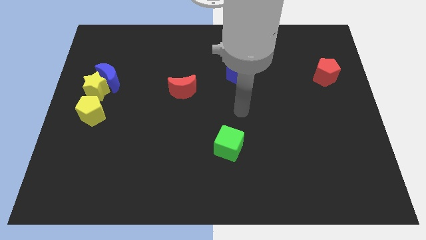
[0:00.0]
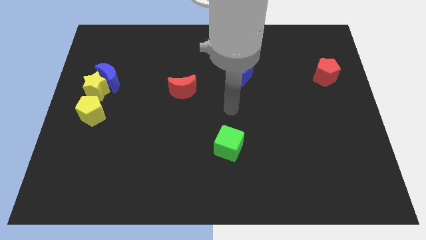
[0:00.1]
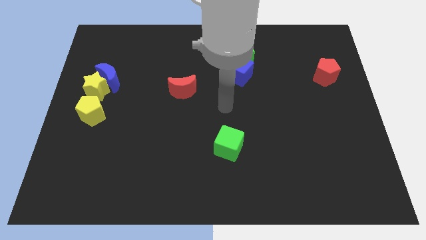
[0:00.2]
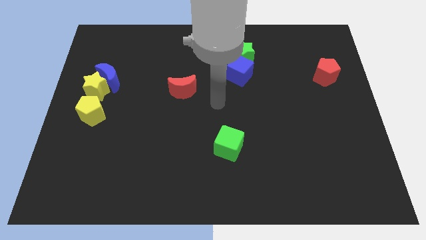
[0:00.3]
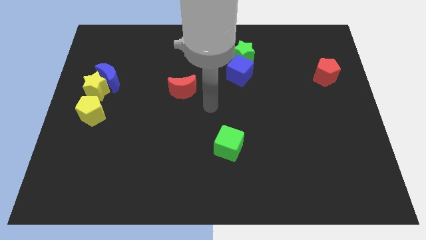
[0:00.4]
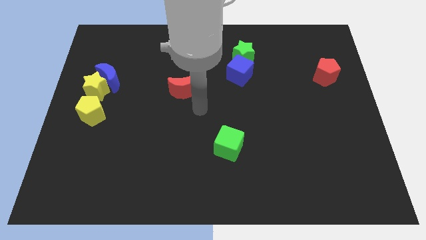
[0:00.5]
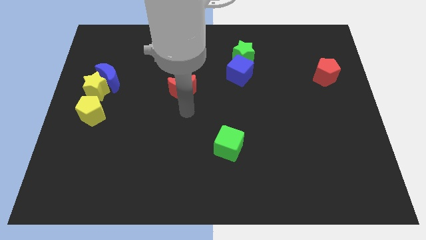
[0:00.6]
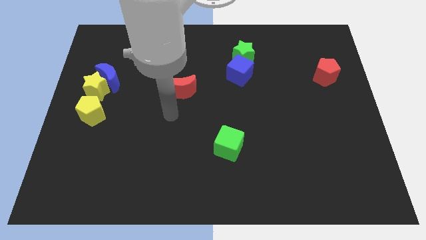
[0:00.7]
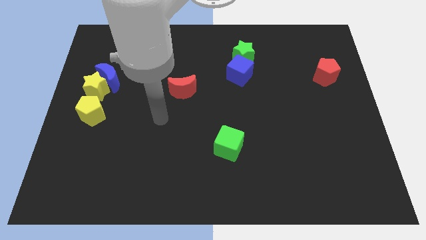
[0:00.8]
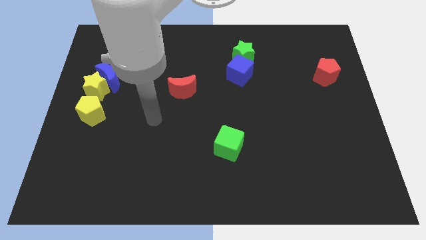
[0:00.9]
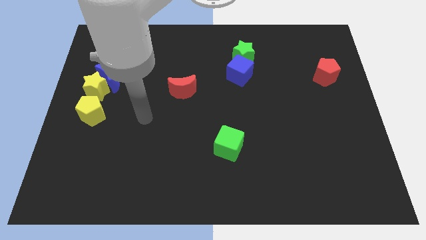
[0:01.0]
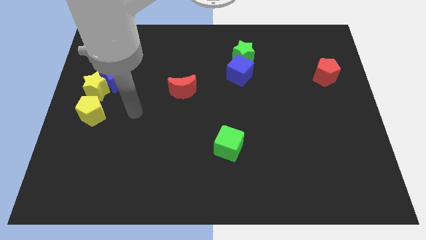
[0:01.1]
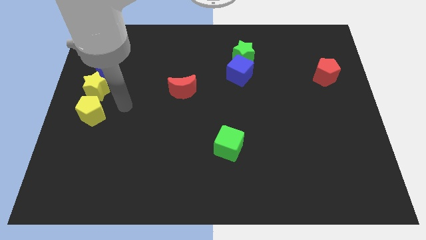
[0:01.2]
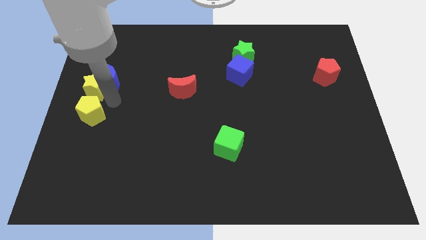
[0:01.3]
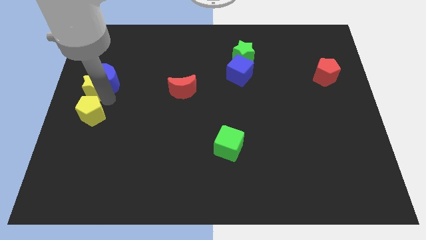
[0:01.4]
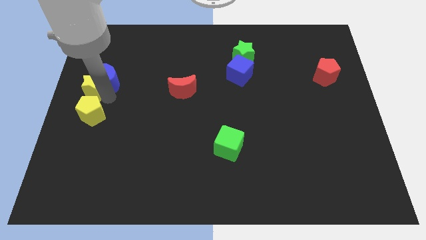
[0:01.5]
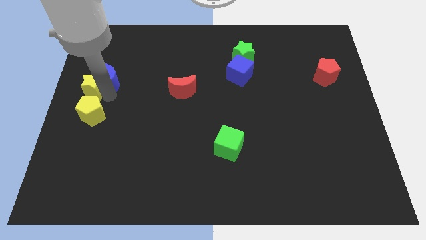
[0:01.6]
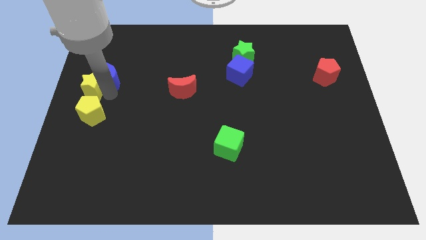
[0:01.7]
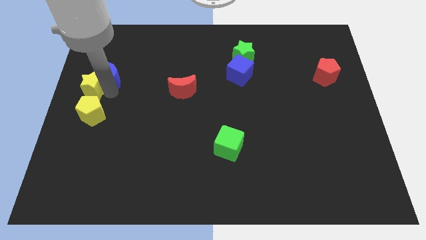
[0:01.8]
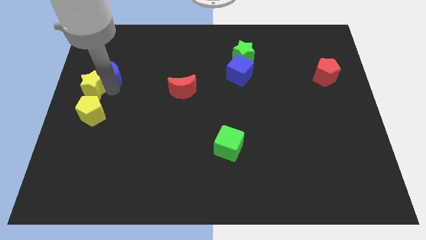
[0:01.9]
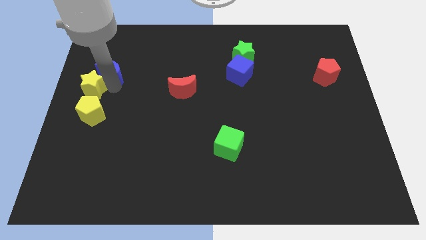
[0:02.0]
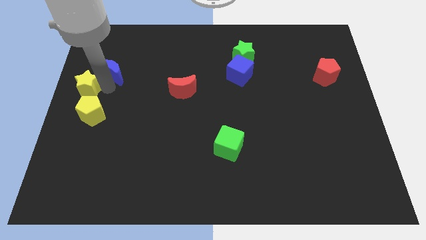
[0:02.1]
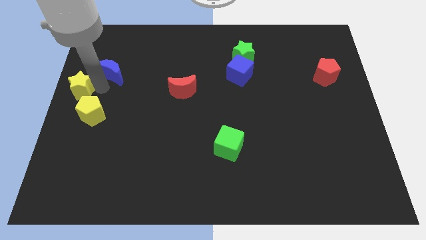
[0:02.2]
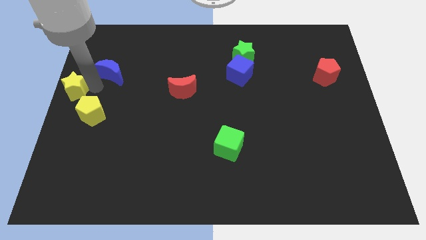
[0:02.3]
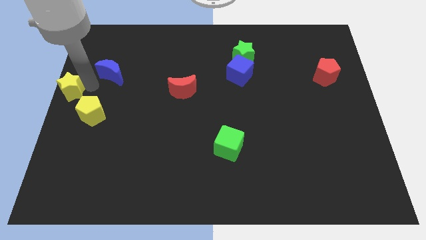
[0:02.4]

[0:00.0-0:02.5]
pull the blue moon apart from the yellow star

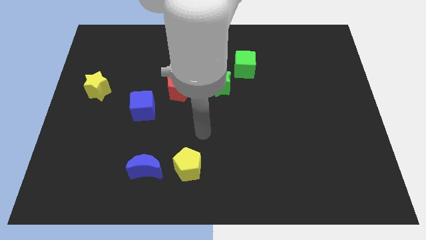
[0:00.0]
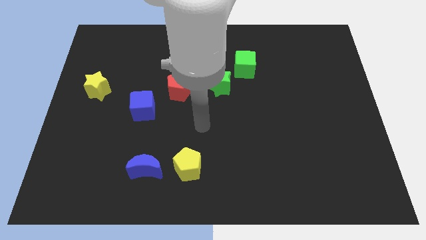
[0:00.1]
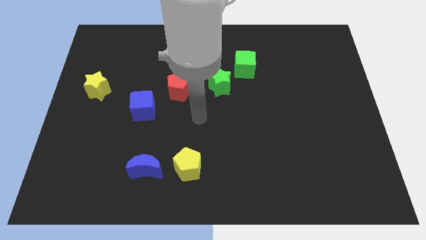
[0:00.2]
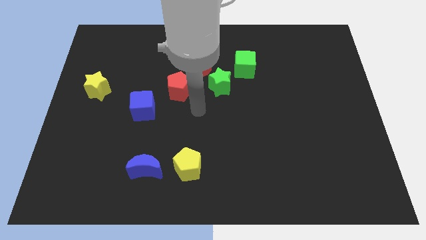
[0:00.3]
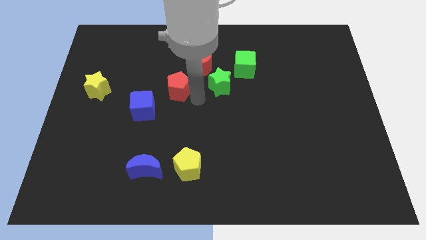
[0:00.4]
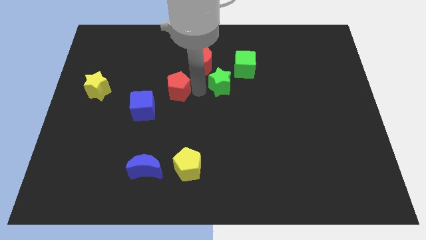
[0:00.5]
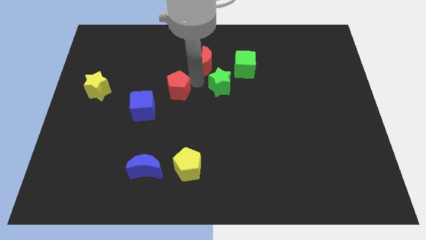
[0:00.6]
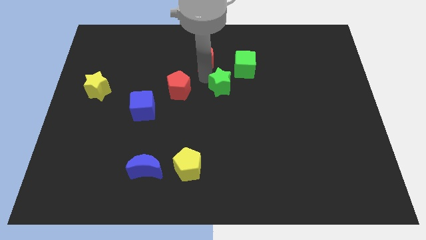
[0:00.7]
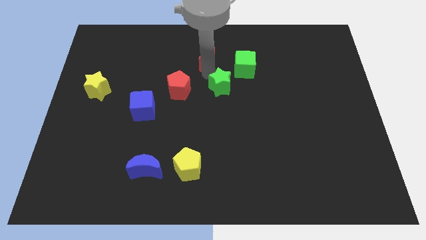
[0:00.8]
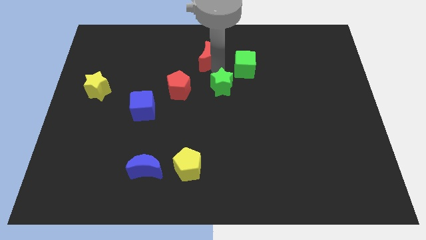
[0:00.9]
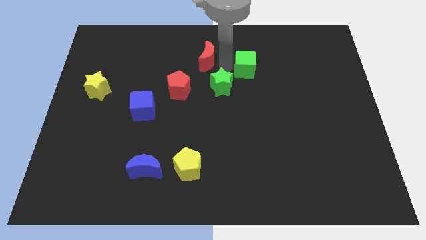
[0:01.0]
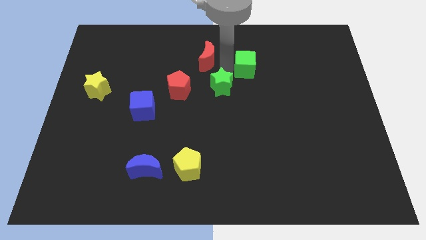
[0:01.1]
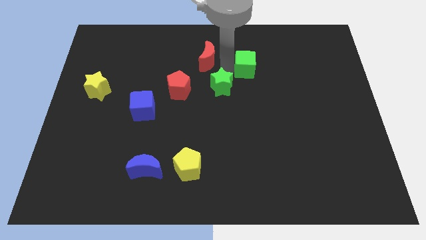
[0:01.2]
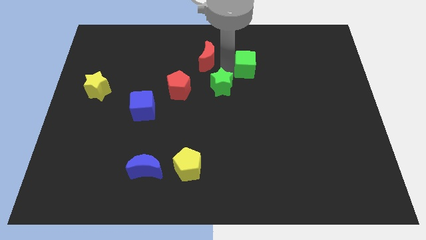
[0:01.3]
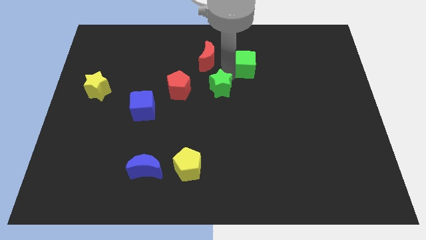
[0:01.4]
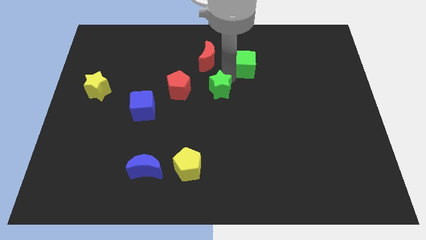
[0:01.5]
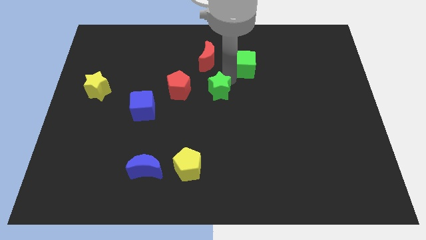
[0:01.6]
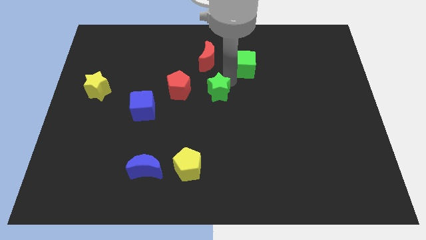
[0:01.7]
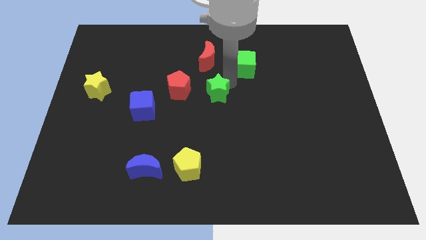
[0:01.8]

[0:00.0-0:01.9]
separate the green star from the red moon and green cube

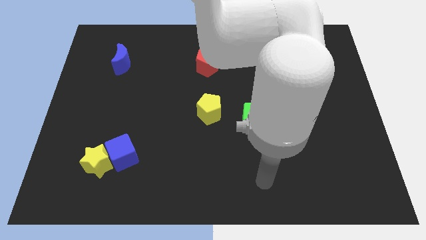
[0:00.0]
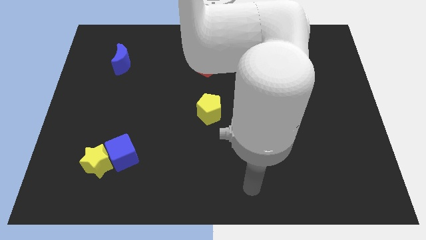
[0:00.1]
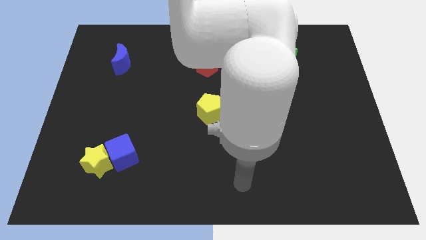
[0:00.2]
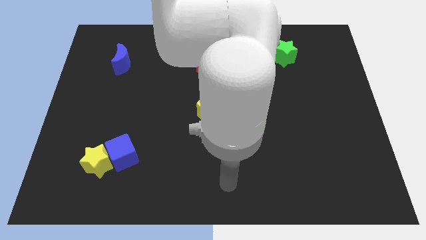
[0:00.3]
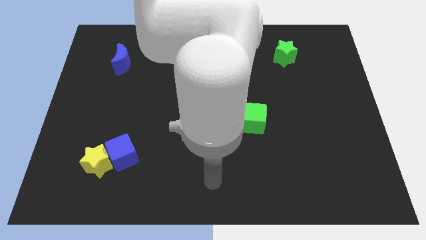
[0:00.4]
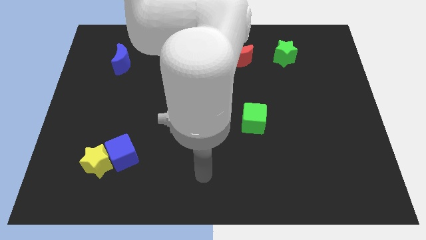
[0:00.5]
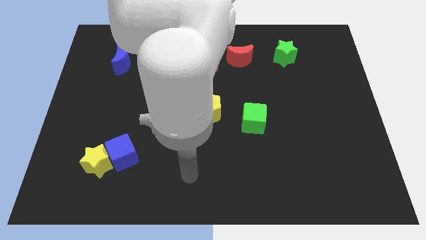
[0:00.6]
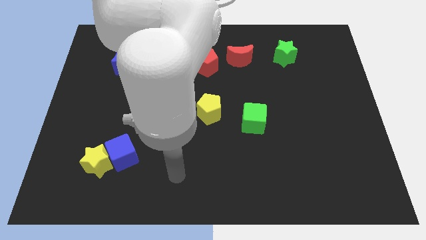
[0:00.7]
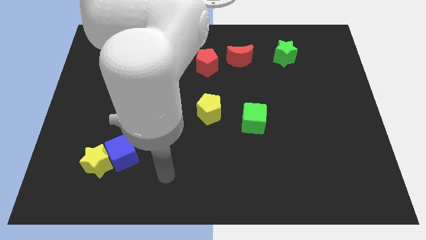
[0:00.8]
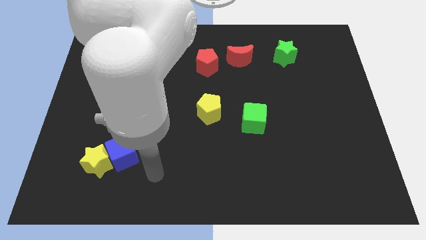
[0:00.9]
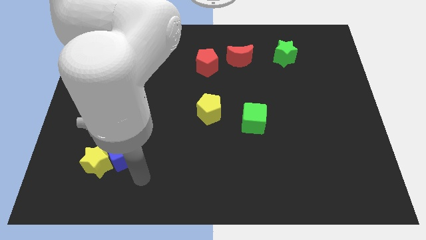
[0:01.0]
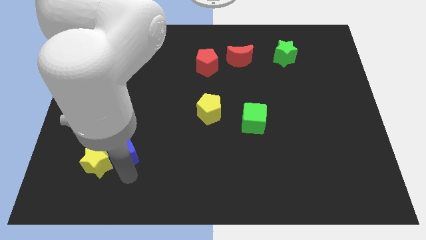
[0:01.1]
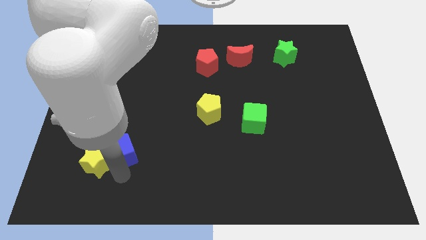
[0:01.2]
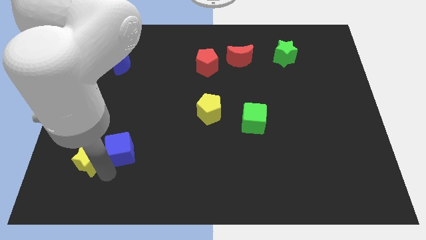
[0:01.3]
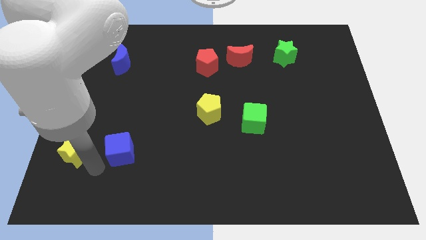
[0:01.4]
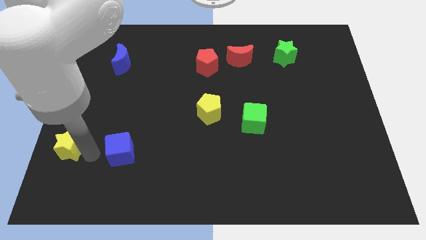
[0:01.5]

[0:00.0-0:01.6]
pull the blue cube apart from the yellow star

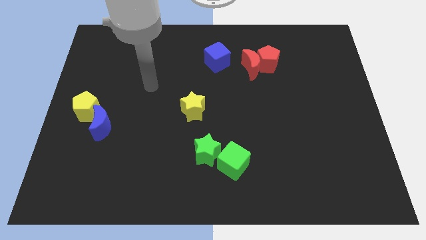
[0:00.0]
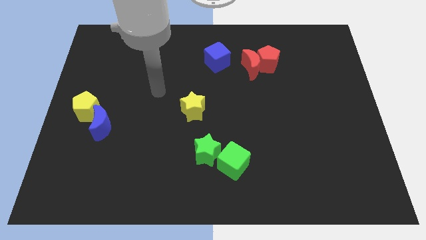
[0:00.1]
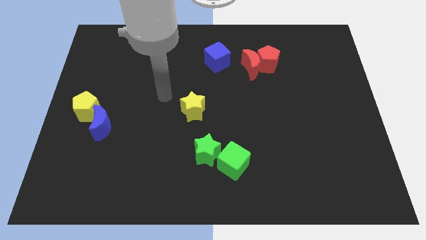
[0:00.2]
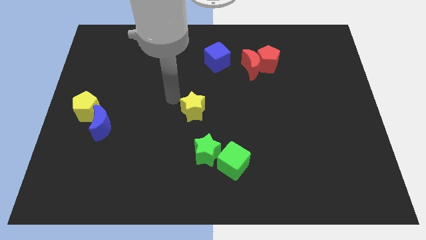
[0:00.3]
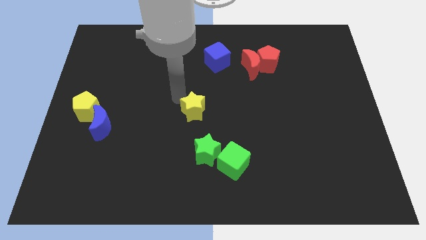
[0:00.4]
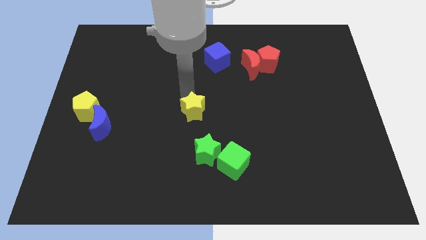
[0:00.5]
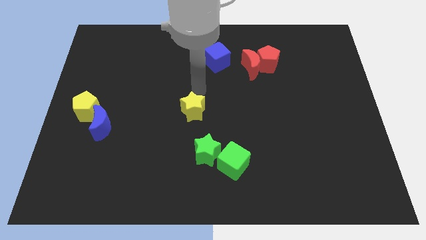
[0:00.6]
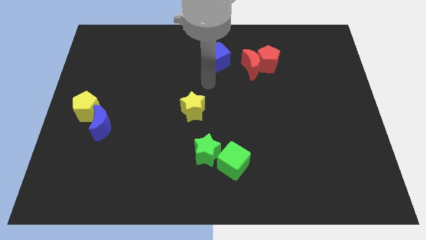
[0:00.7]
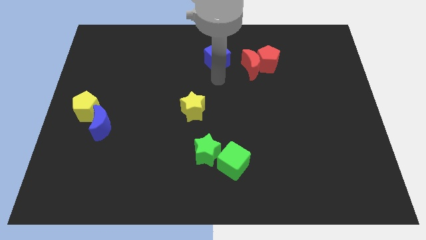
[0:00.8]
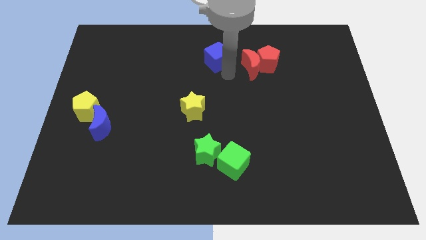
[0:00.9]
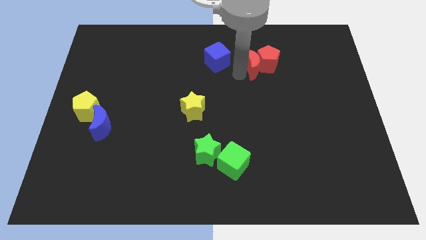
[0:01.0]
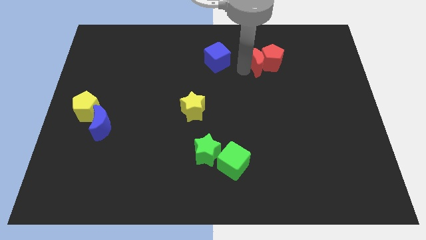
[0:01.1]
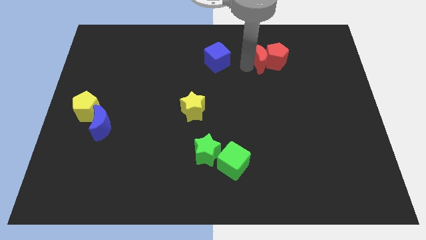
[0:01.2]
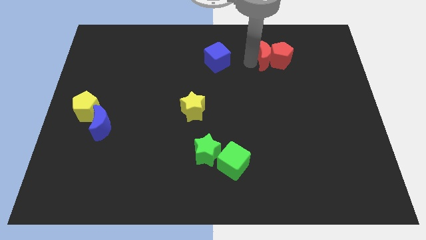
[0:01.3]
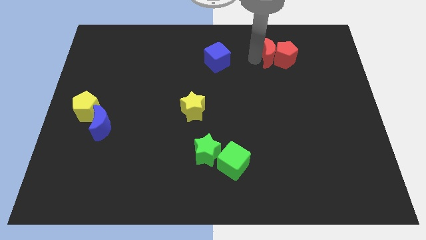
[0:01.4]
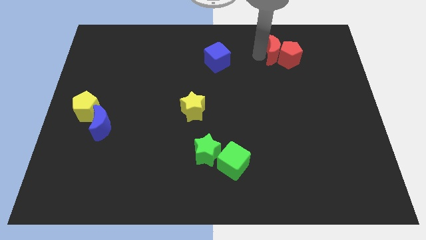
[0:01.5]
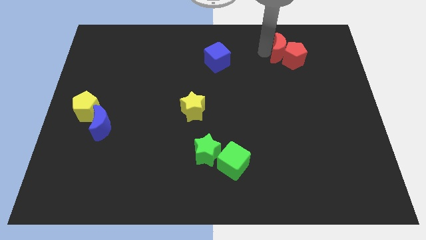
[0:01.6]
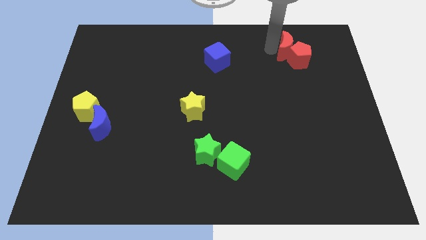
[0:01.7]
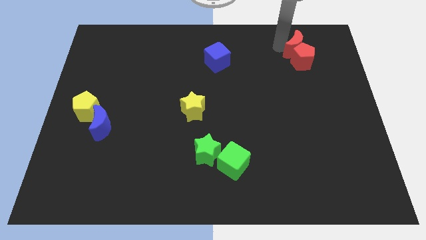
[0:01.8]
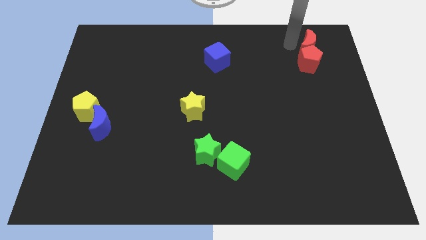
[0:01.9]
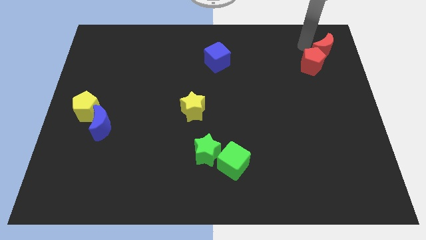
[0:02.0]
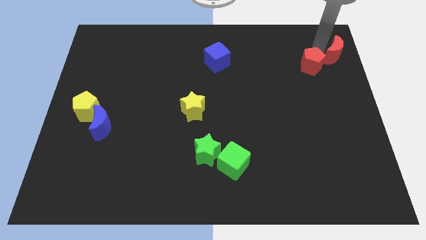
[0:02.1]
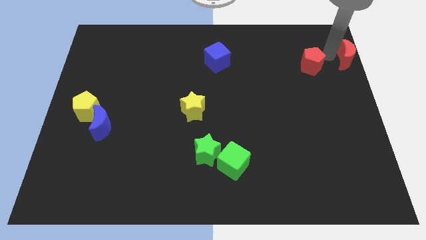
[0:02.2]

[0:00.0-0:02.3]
separate the red pentagon from the red moon

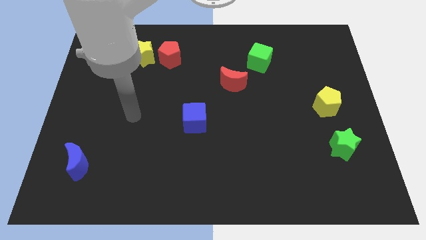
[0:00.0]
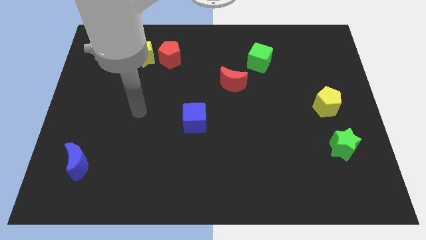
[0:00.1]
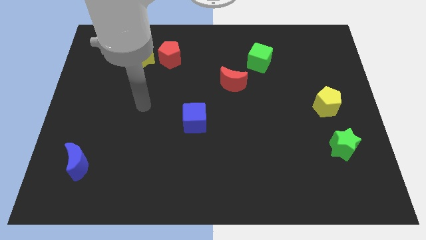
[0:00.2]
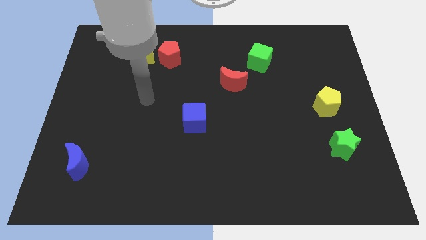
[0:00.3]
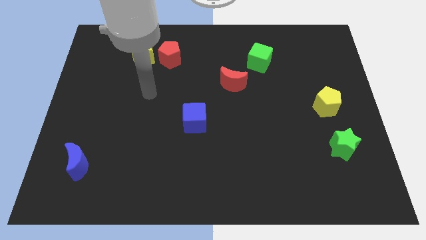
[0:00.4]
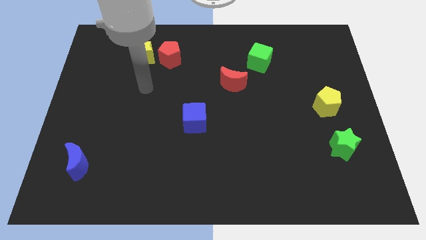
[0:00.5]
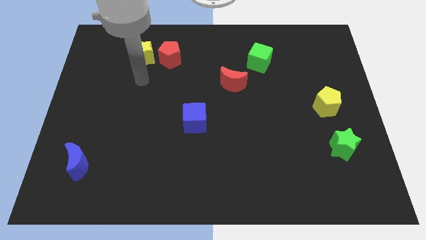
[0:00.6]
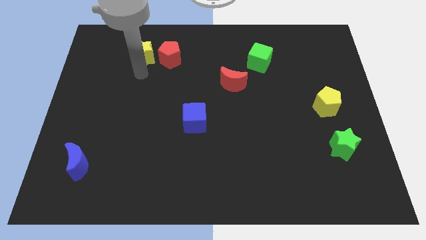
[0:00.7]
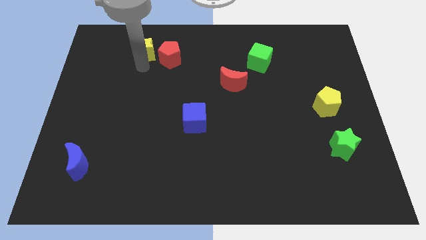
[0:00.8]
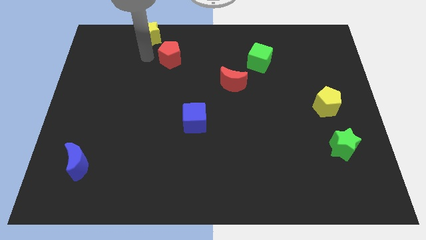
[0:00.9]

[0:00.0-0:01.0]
separate the red pentagon from the yellow star
